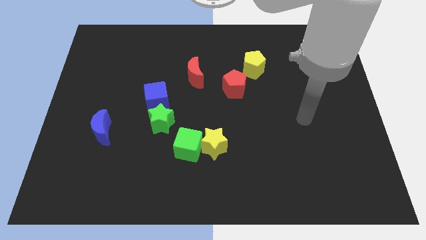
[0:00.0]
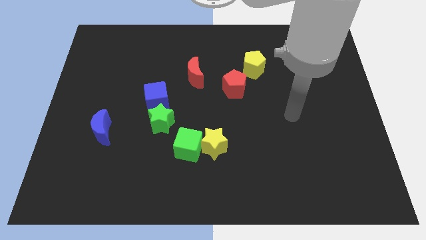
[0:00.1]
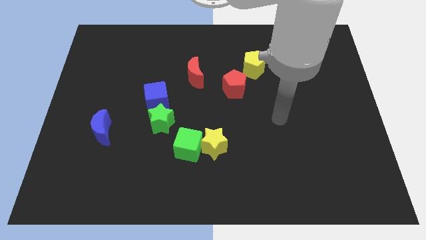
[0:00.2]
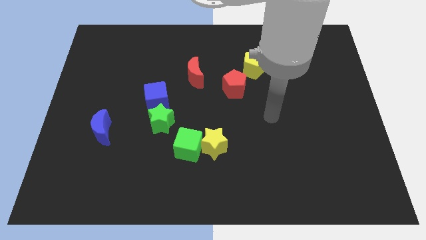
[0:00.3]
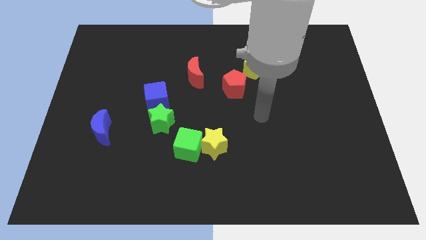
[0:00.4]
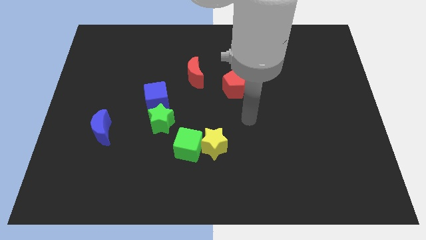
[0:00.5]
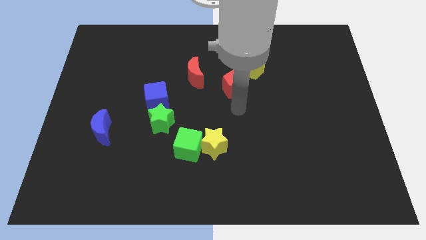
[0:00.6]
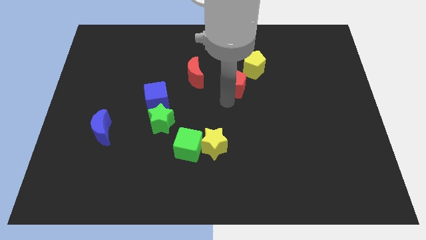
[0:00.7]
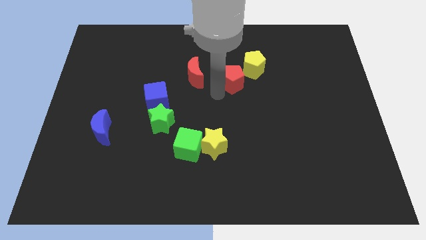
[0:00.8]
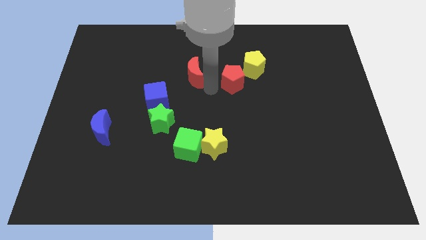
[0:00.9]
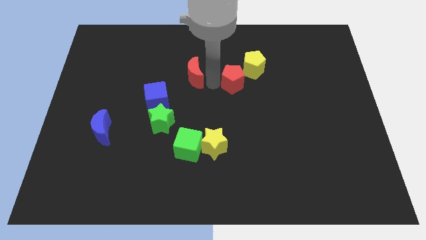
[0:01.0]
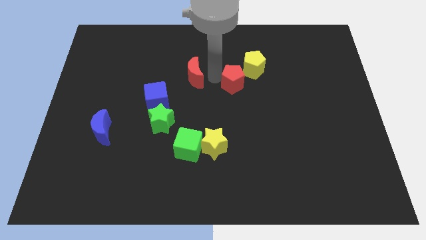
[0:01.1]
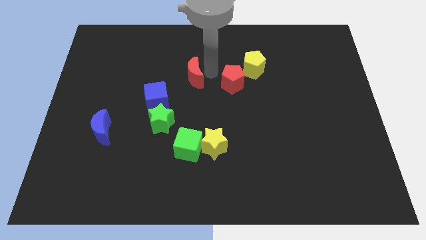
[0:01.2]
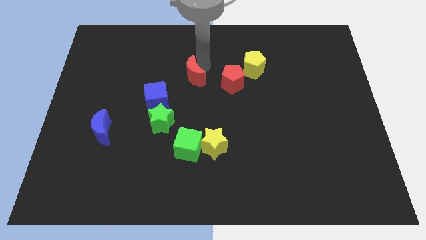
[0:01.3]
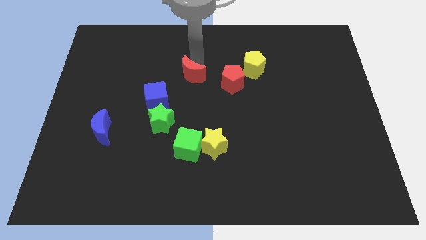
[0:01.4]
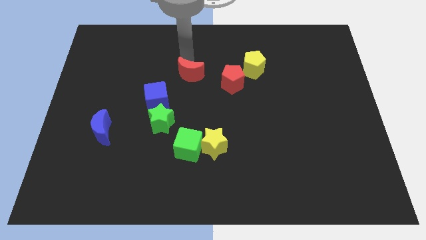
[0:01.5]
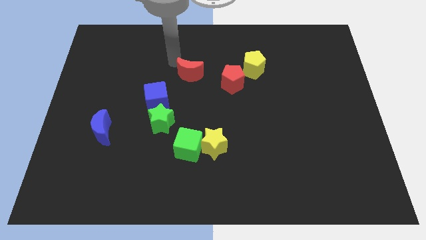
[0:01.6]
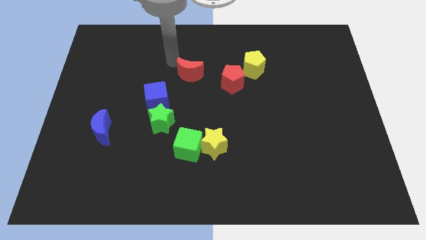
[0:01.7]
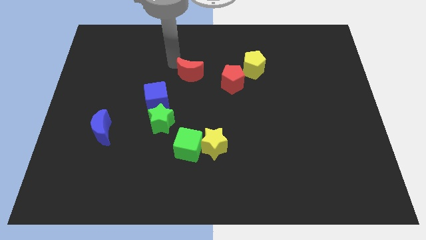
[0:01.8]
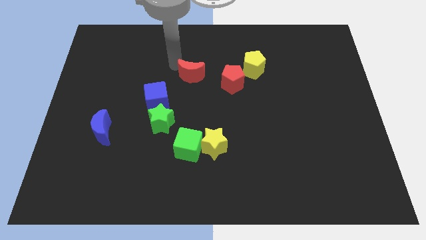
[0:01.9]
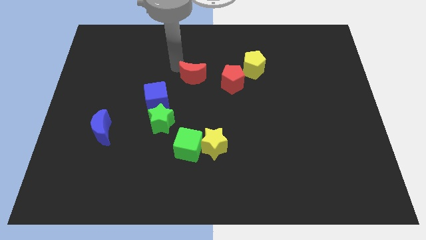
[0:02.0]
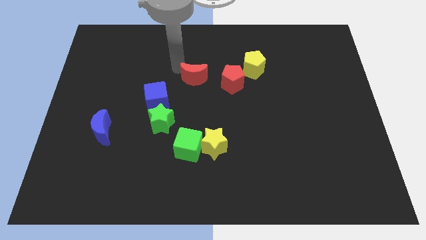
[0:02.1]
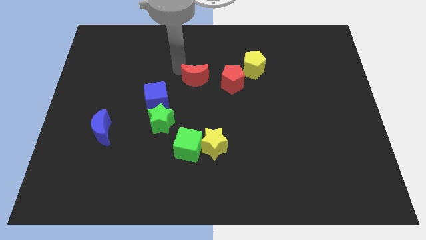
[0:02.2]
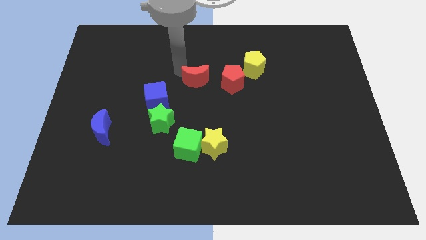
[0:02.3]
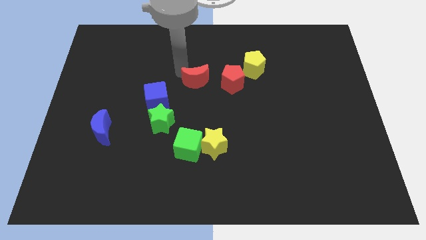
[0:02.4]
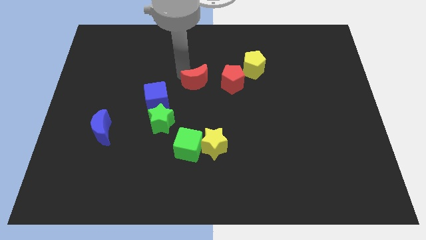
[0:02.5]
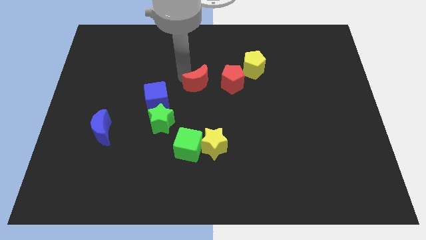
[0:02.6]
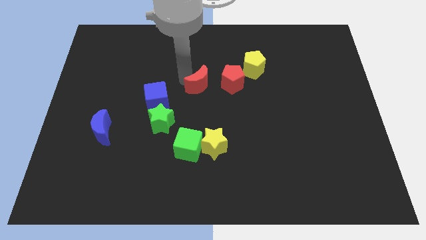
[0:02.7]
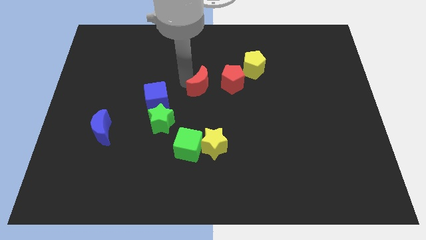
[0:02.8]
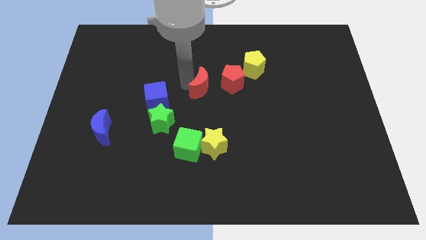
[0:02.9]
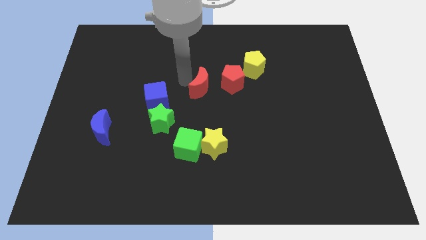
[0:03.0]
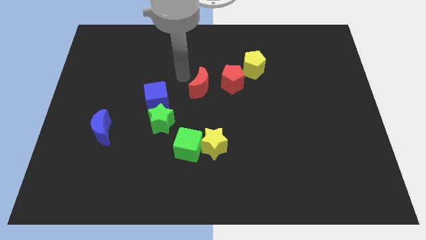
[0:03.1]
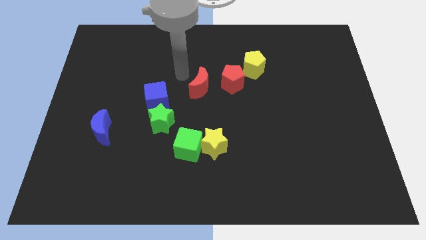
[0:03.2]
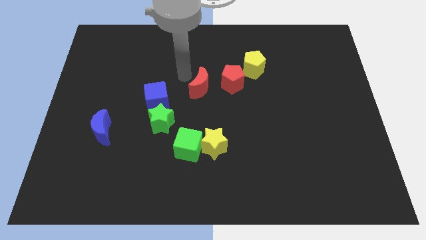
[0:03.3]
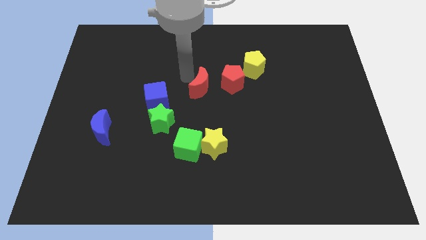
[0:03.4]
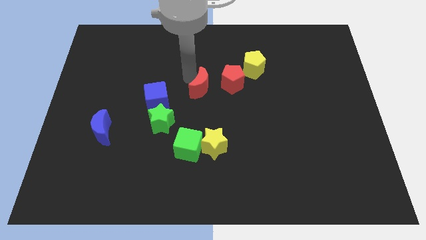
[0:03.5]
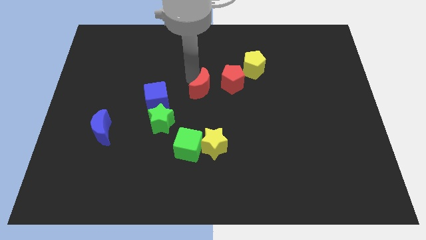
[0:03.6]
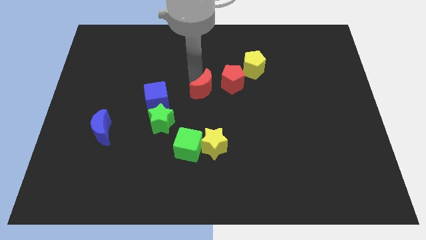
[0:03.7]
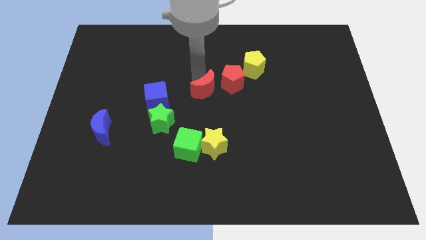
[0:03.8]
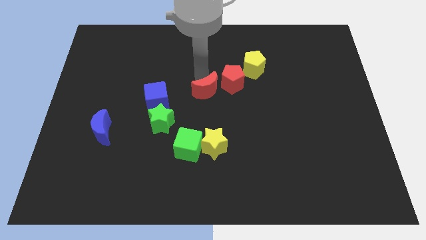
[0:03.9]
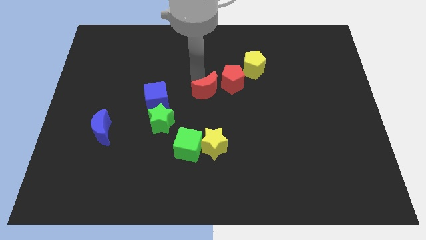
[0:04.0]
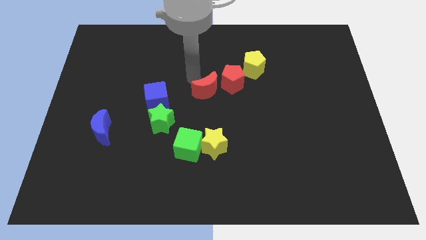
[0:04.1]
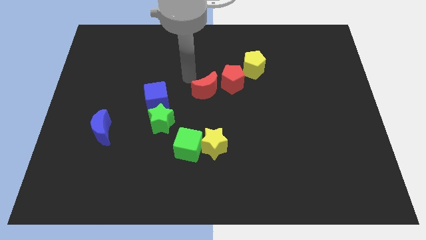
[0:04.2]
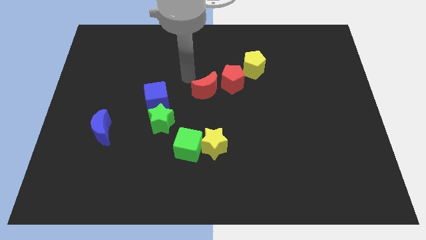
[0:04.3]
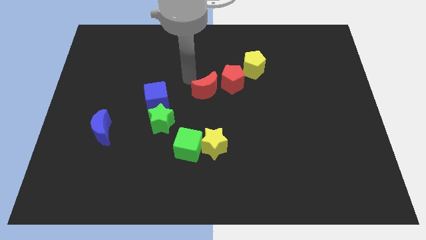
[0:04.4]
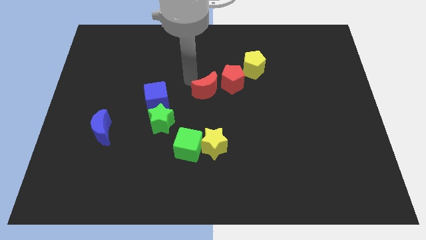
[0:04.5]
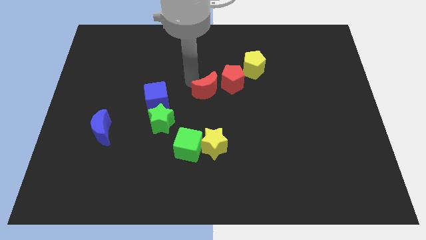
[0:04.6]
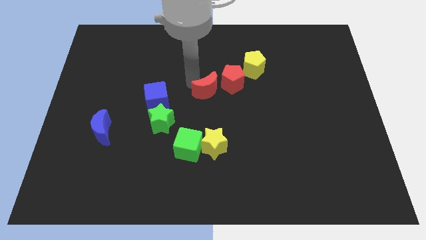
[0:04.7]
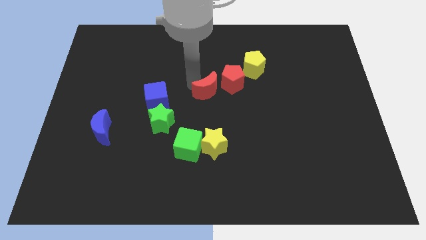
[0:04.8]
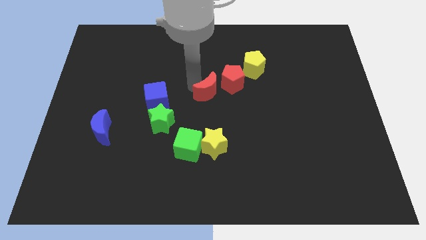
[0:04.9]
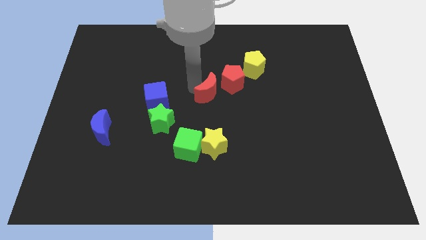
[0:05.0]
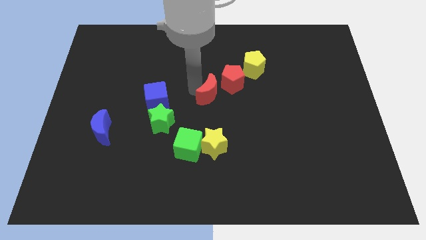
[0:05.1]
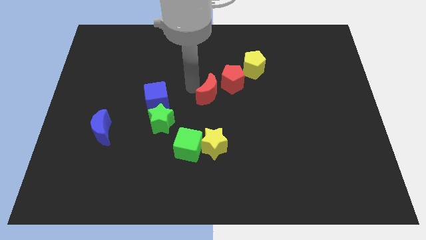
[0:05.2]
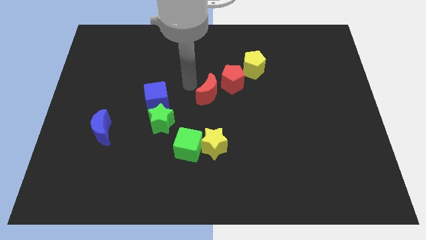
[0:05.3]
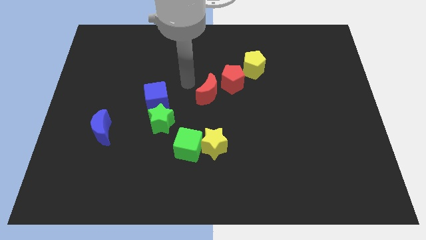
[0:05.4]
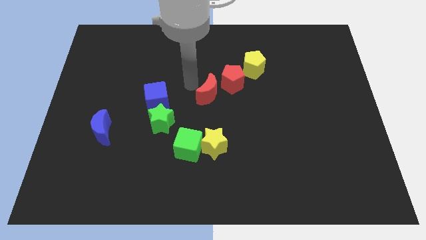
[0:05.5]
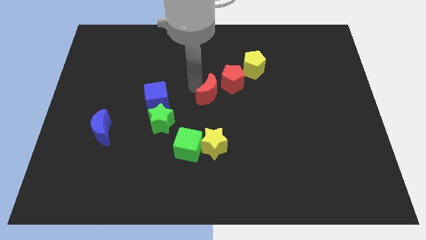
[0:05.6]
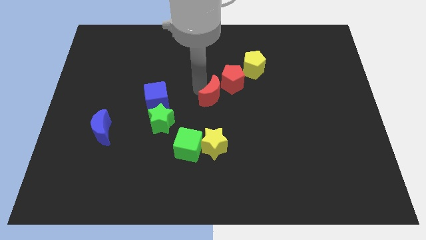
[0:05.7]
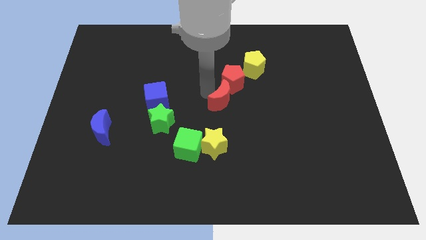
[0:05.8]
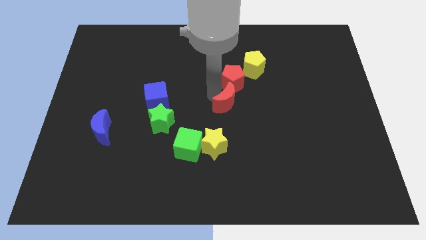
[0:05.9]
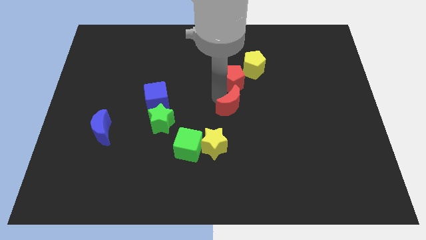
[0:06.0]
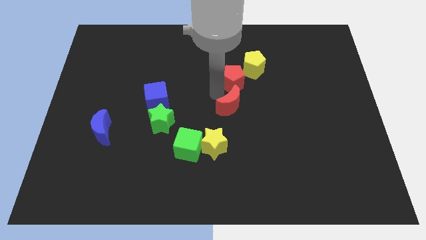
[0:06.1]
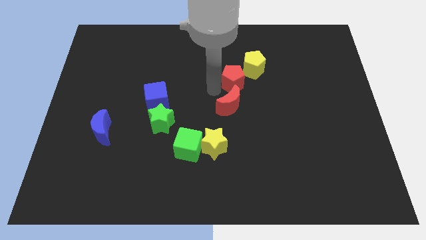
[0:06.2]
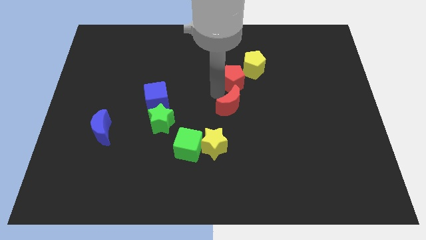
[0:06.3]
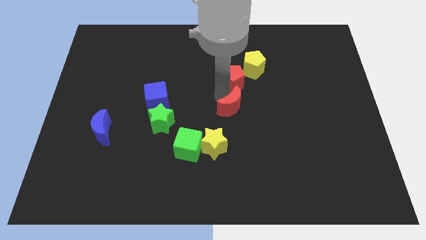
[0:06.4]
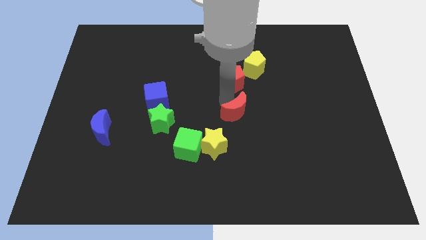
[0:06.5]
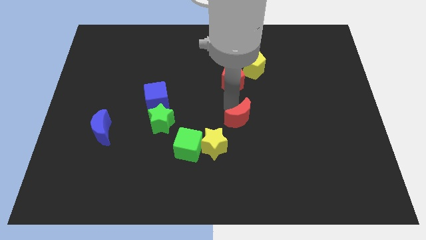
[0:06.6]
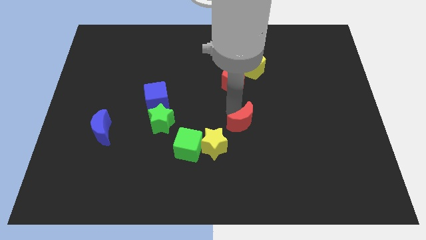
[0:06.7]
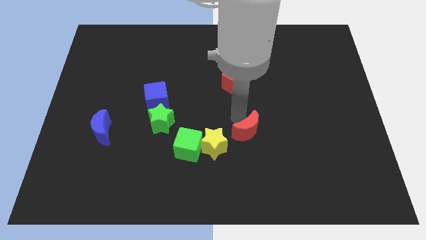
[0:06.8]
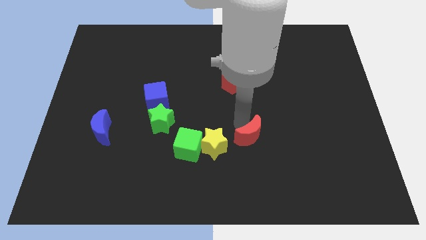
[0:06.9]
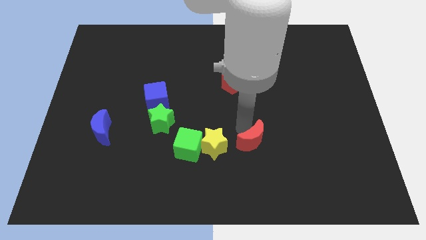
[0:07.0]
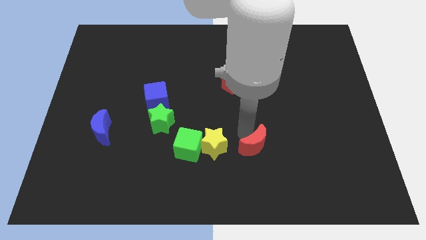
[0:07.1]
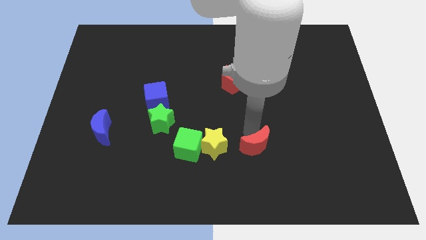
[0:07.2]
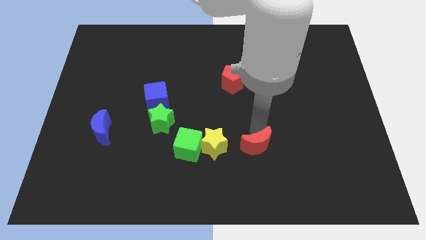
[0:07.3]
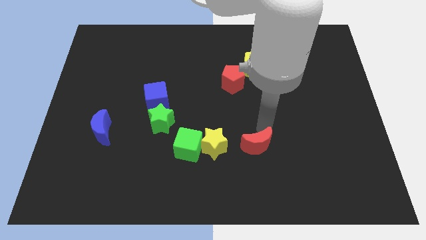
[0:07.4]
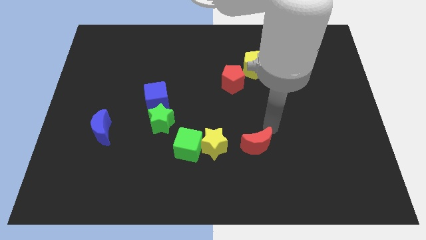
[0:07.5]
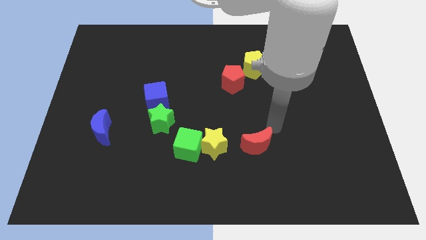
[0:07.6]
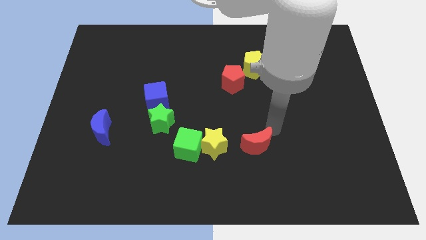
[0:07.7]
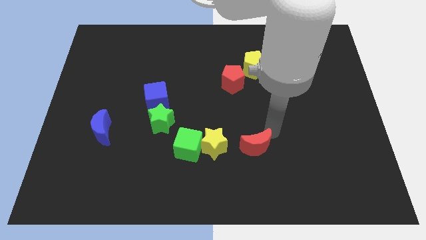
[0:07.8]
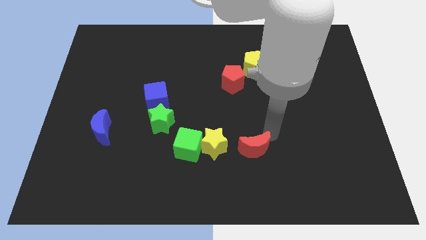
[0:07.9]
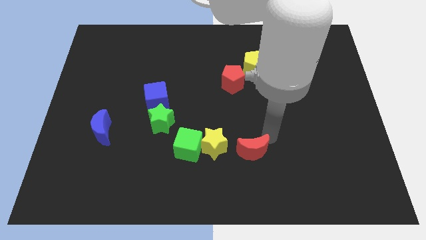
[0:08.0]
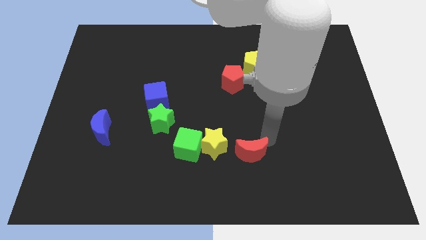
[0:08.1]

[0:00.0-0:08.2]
move the red moon to the bottom right side of the yellow star
